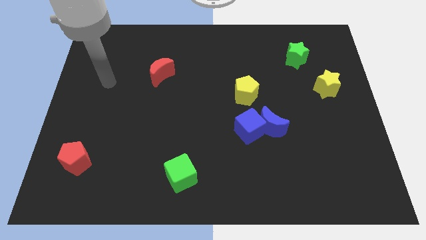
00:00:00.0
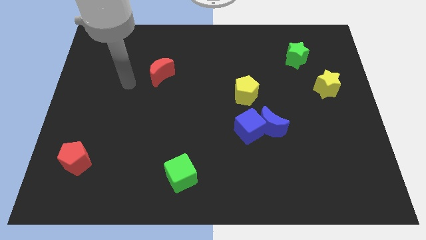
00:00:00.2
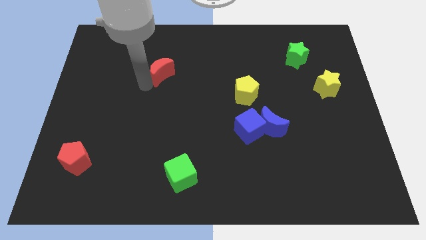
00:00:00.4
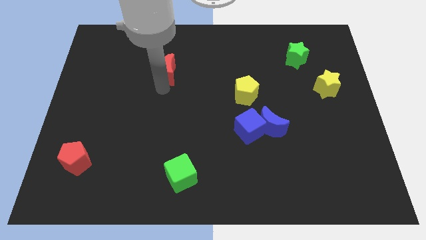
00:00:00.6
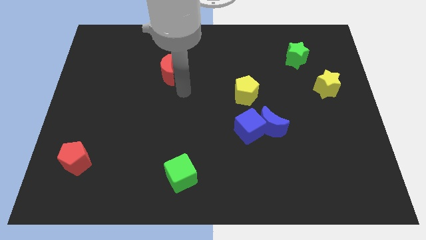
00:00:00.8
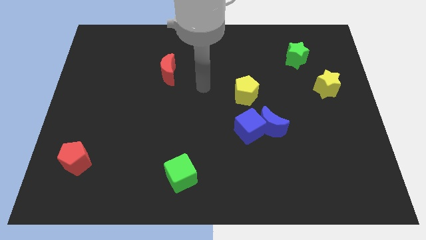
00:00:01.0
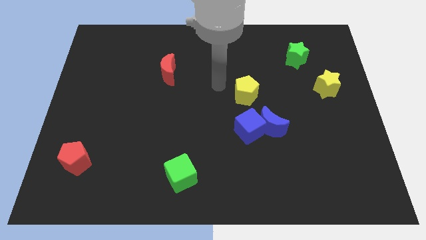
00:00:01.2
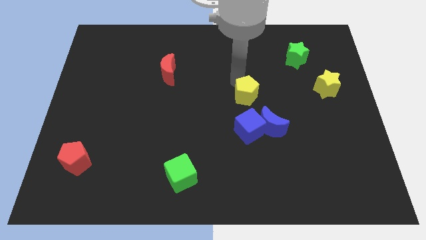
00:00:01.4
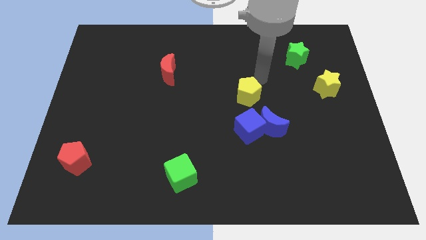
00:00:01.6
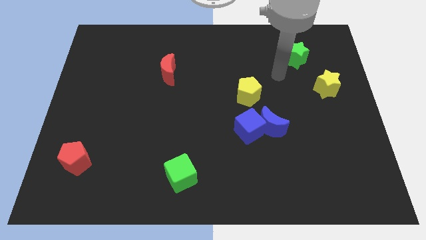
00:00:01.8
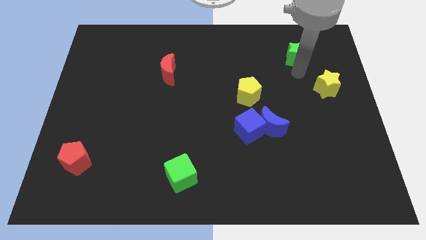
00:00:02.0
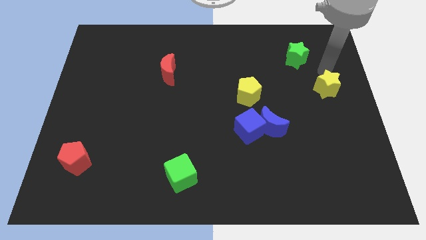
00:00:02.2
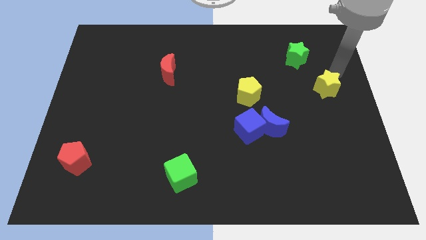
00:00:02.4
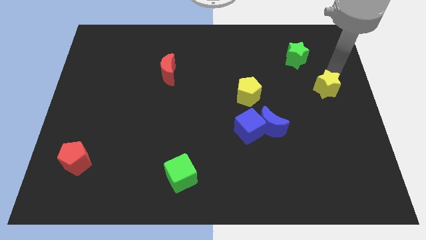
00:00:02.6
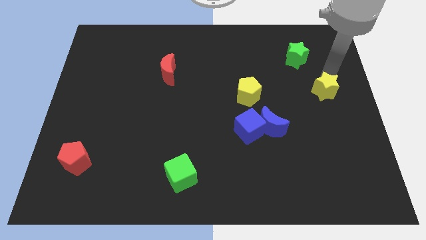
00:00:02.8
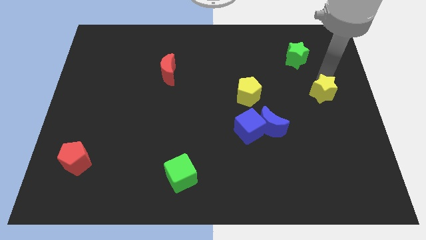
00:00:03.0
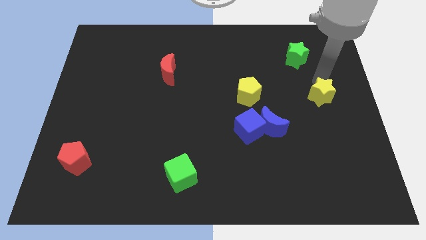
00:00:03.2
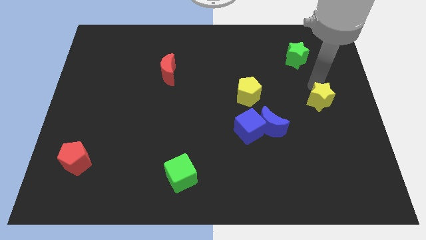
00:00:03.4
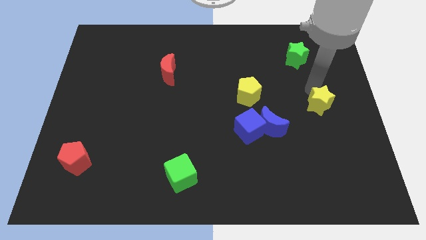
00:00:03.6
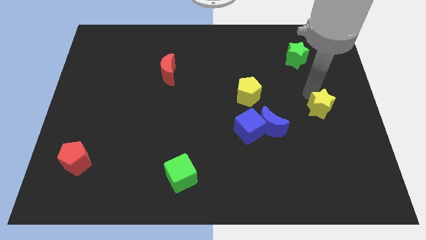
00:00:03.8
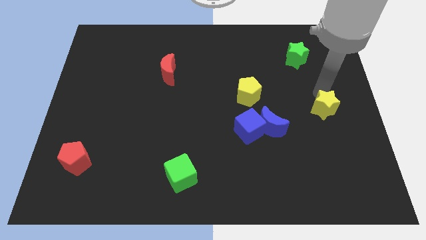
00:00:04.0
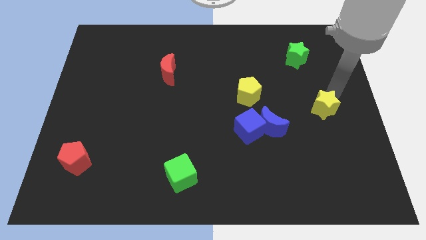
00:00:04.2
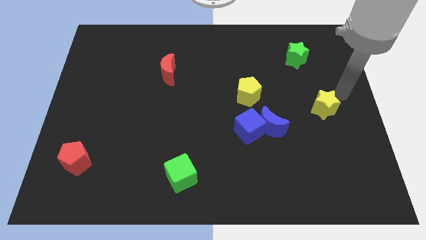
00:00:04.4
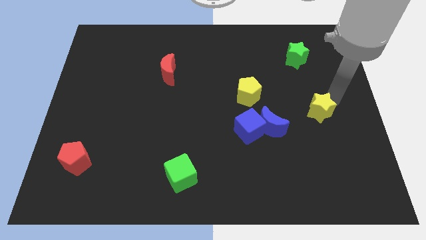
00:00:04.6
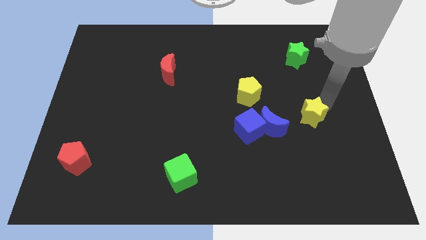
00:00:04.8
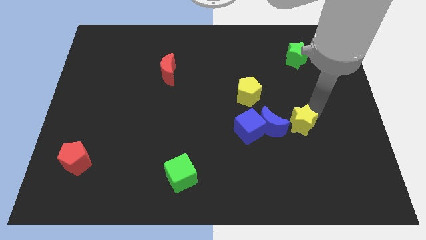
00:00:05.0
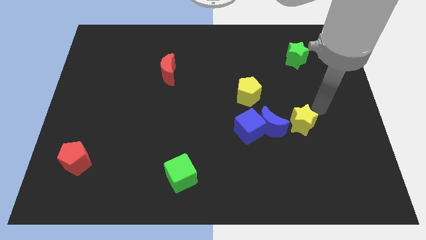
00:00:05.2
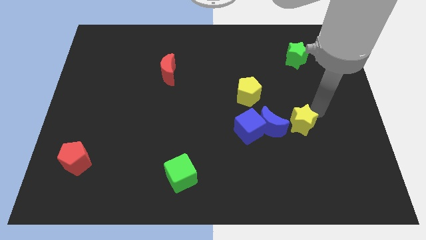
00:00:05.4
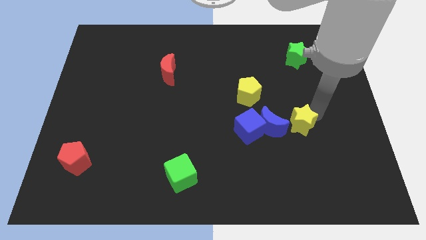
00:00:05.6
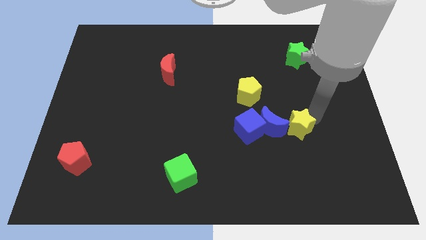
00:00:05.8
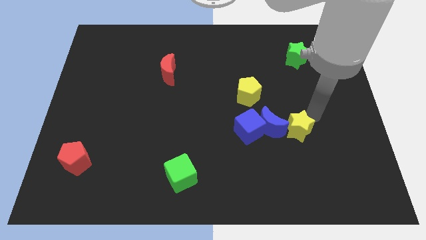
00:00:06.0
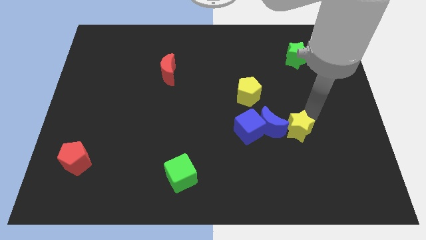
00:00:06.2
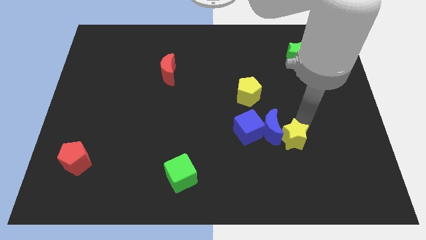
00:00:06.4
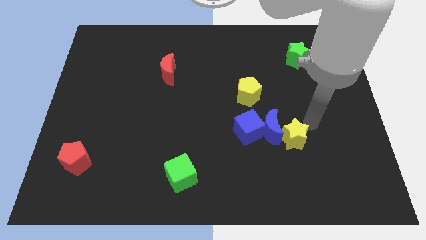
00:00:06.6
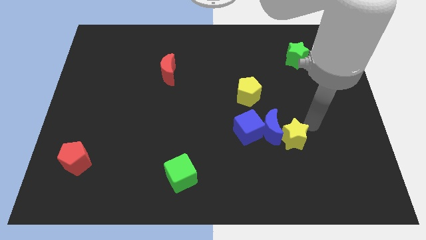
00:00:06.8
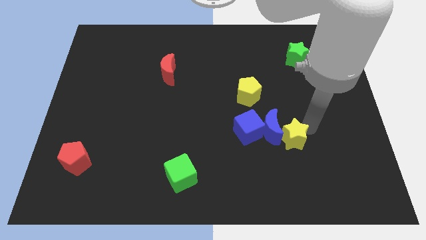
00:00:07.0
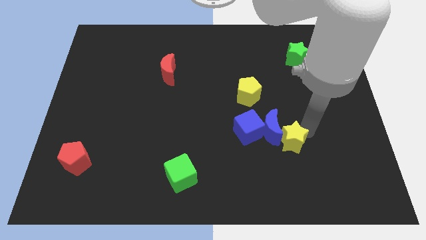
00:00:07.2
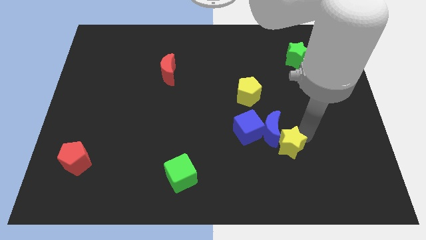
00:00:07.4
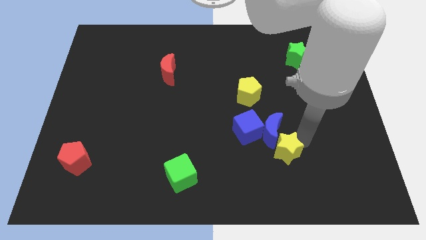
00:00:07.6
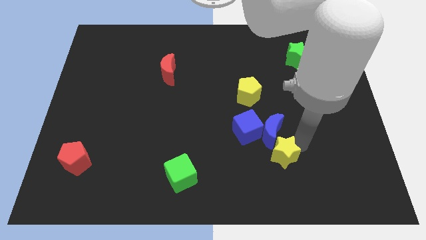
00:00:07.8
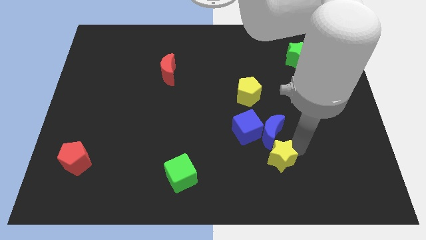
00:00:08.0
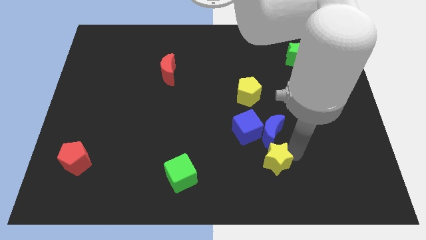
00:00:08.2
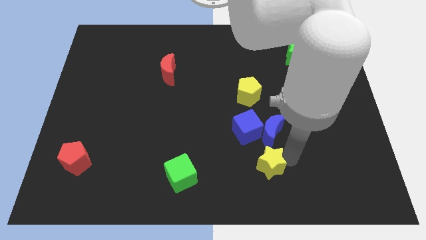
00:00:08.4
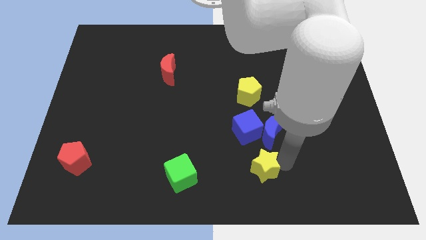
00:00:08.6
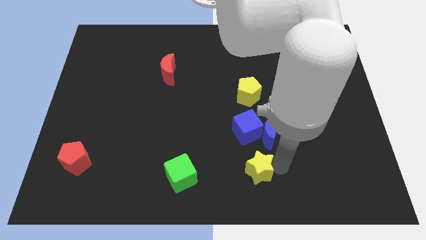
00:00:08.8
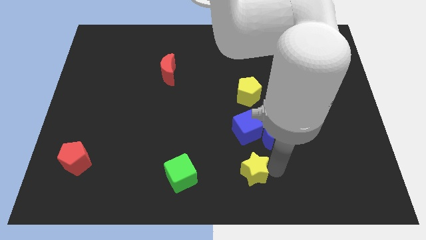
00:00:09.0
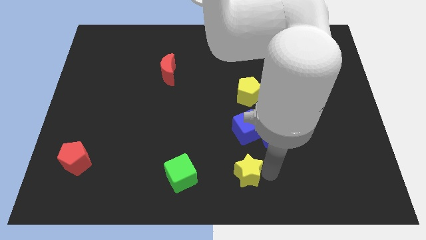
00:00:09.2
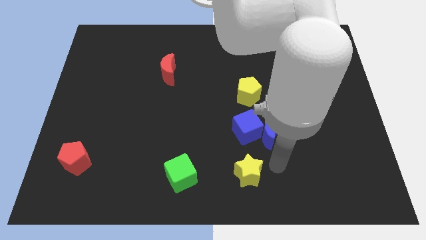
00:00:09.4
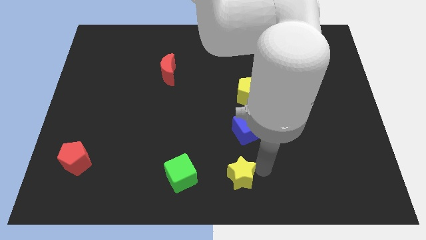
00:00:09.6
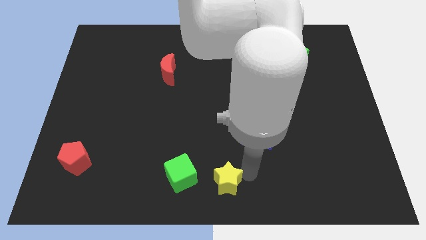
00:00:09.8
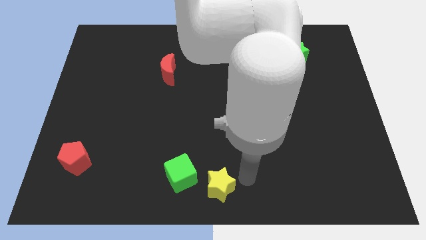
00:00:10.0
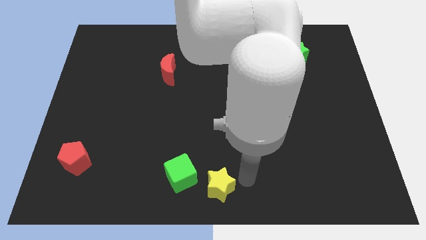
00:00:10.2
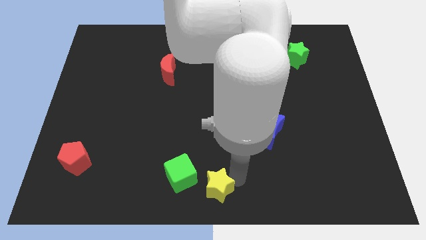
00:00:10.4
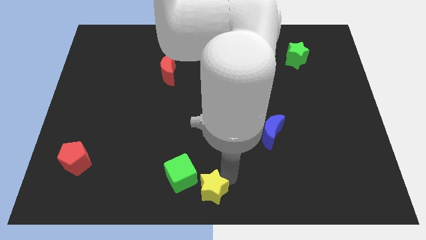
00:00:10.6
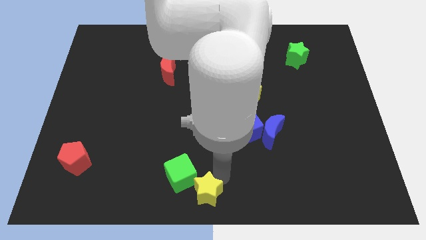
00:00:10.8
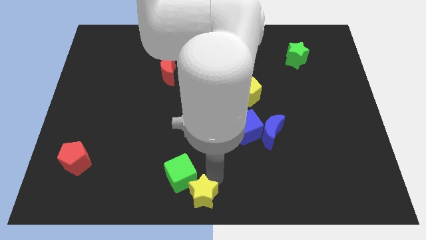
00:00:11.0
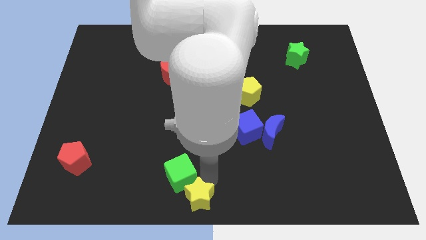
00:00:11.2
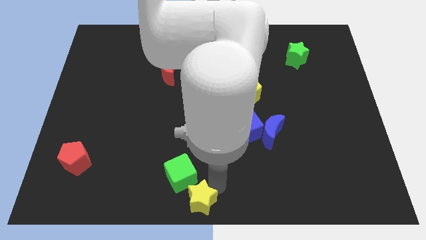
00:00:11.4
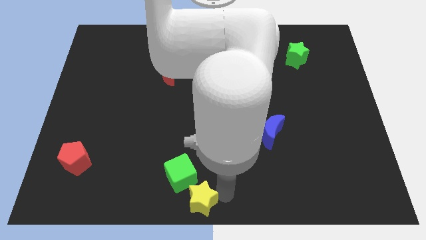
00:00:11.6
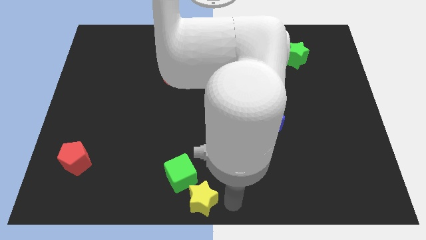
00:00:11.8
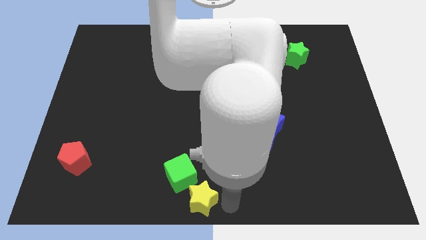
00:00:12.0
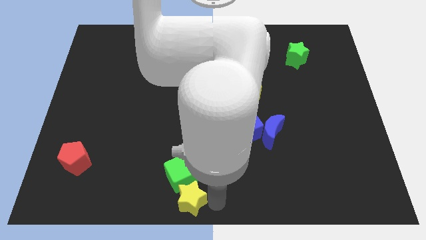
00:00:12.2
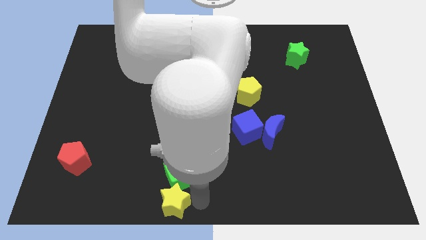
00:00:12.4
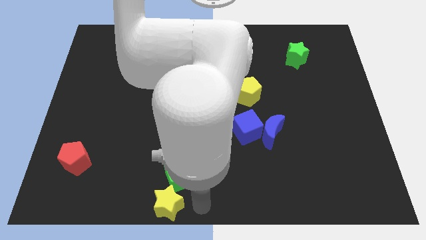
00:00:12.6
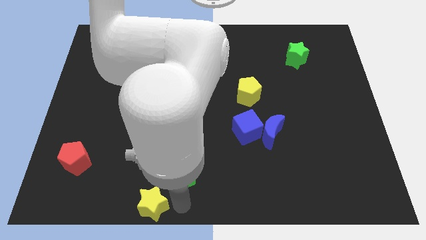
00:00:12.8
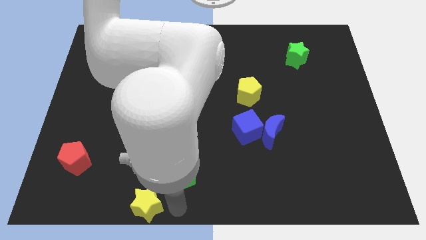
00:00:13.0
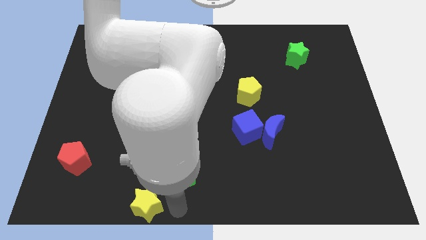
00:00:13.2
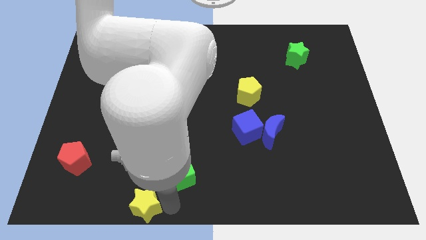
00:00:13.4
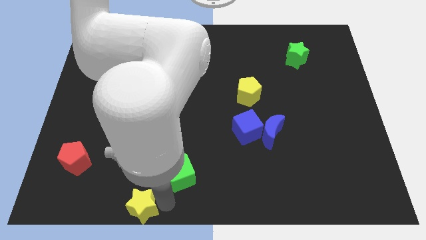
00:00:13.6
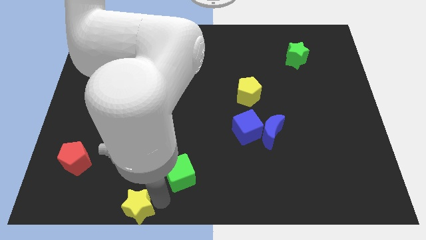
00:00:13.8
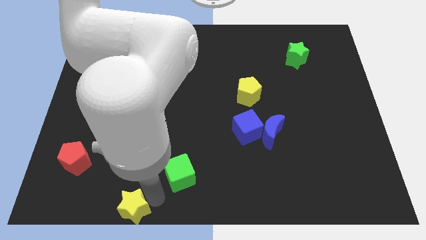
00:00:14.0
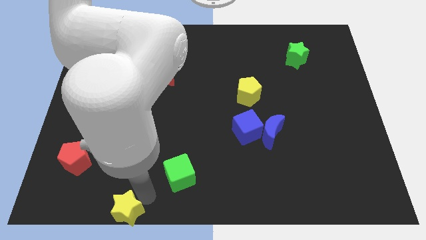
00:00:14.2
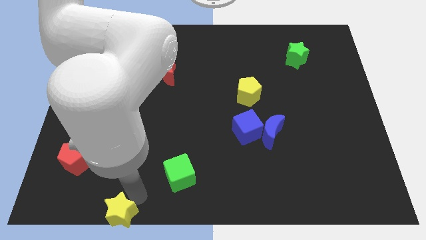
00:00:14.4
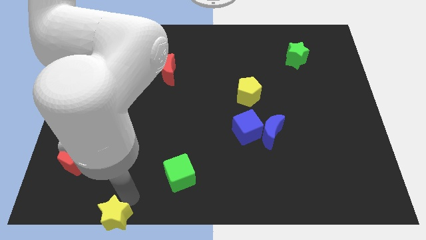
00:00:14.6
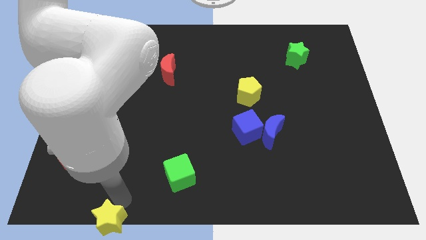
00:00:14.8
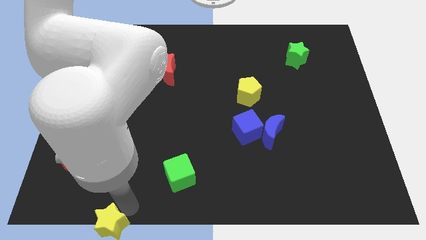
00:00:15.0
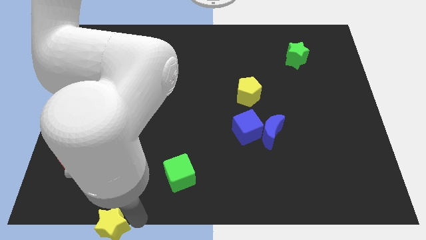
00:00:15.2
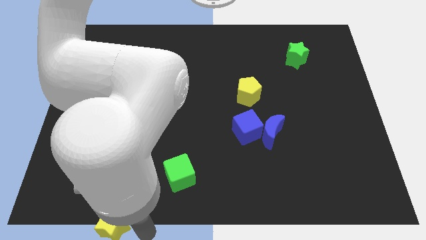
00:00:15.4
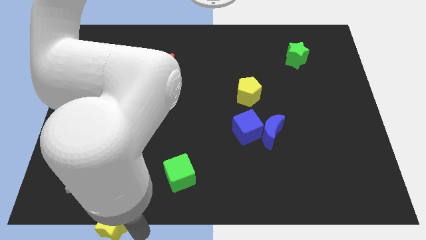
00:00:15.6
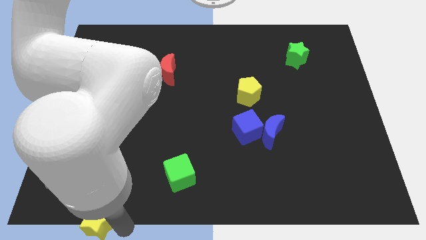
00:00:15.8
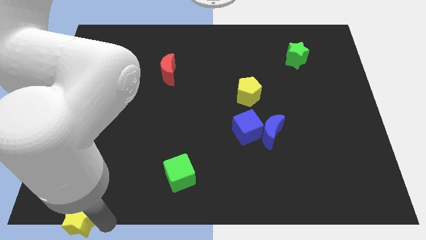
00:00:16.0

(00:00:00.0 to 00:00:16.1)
slide the yellow star to the bottom left of the board
